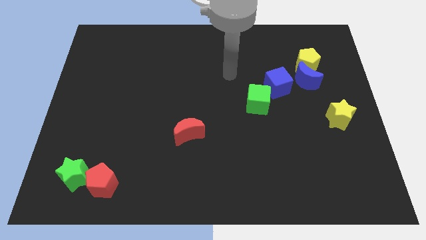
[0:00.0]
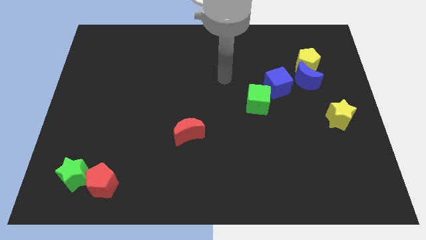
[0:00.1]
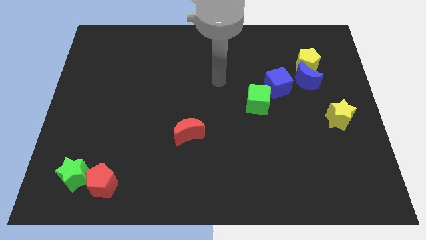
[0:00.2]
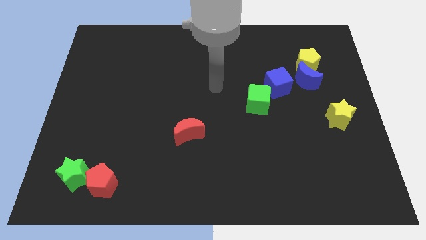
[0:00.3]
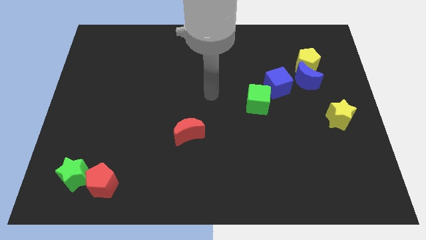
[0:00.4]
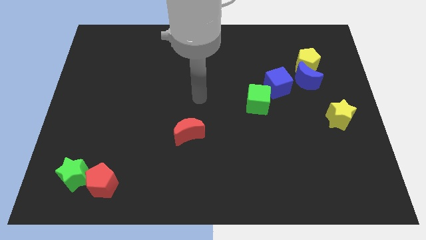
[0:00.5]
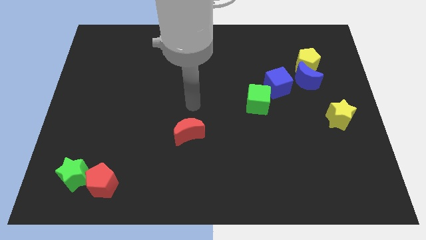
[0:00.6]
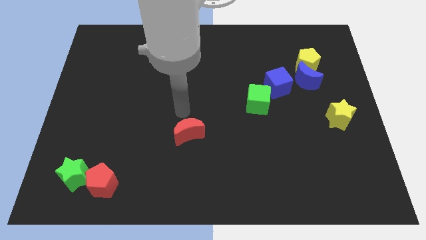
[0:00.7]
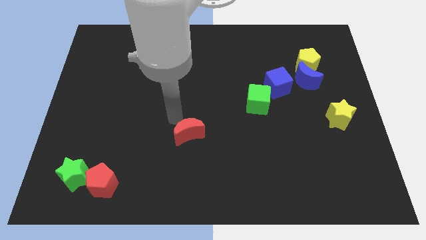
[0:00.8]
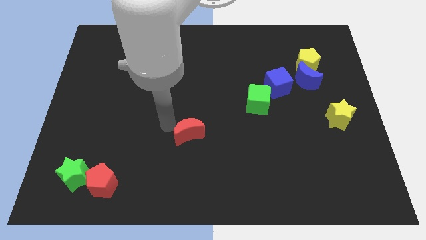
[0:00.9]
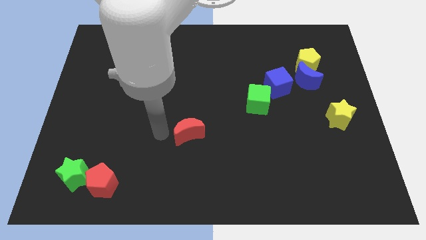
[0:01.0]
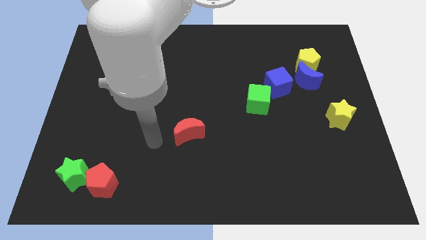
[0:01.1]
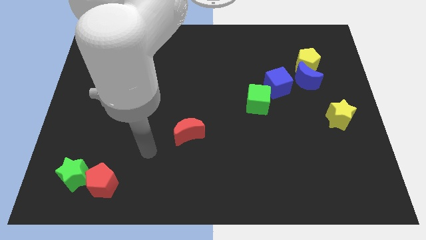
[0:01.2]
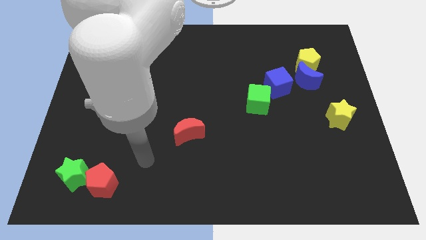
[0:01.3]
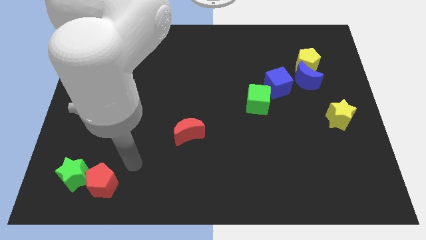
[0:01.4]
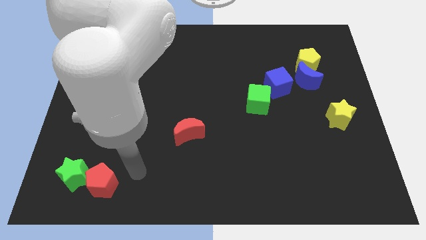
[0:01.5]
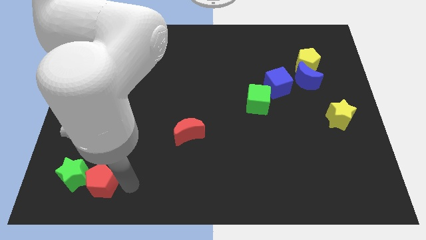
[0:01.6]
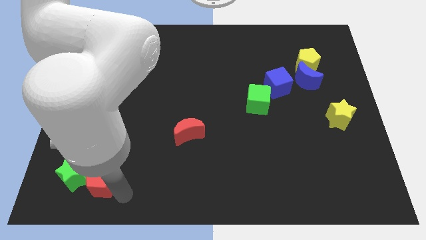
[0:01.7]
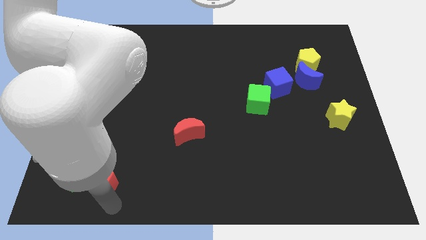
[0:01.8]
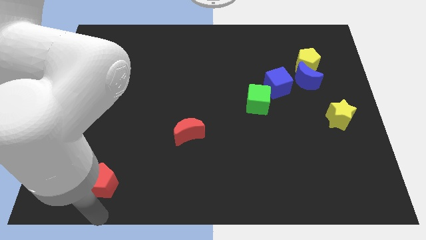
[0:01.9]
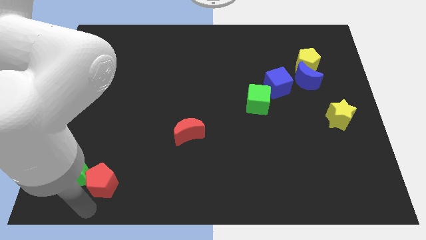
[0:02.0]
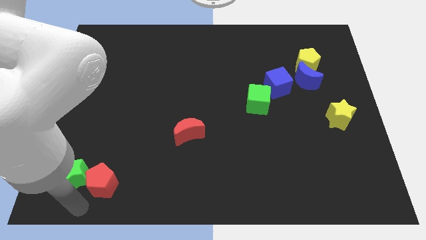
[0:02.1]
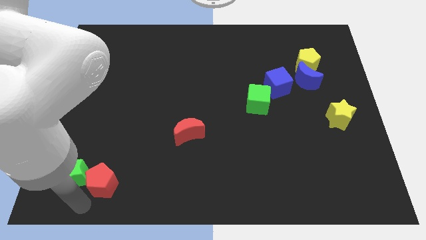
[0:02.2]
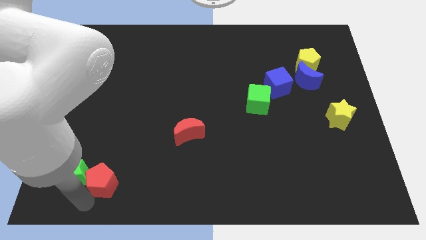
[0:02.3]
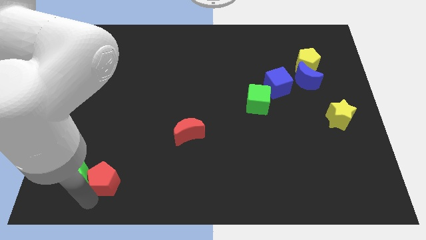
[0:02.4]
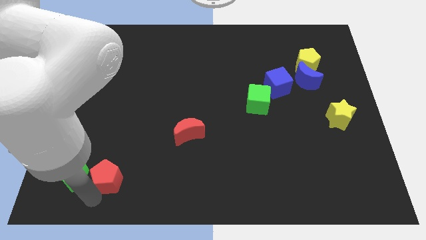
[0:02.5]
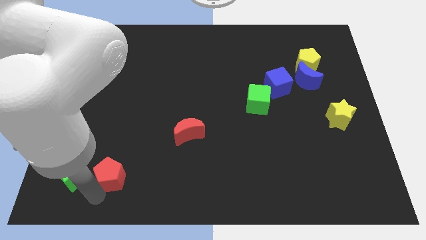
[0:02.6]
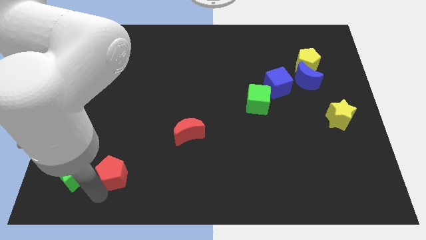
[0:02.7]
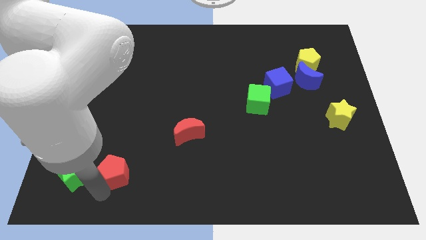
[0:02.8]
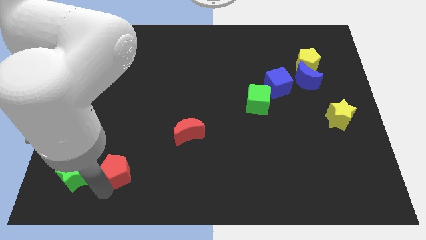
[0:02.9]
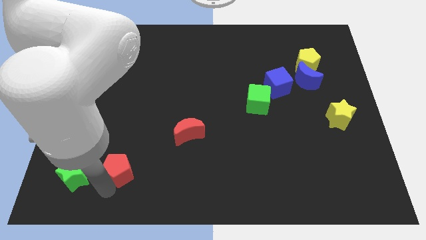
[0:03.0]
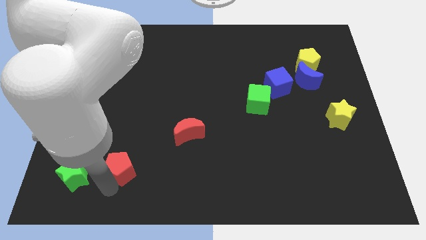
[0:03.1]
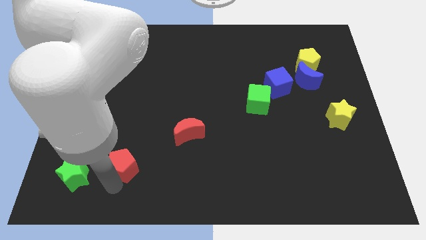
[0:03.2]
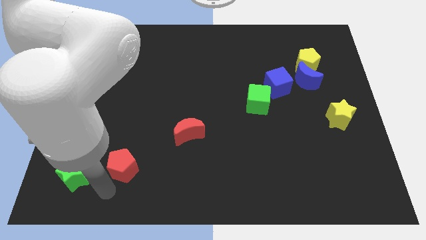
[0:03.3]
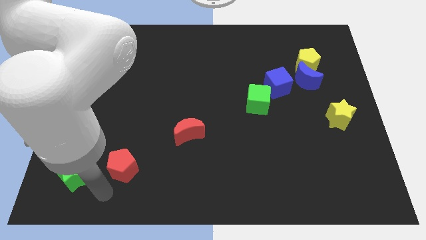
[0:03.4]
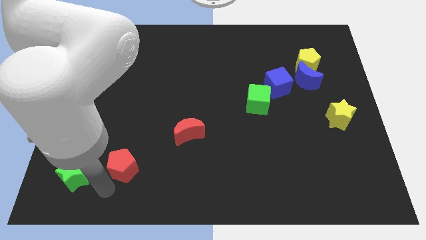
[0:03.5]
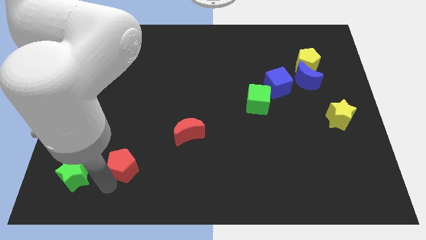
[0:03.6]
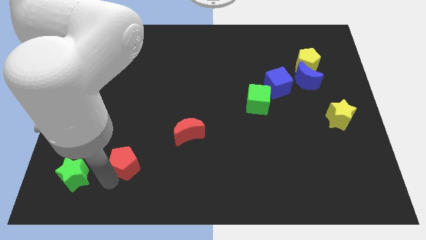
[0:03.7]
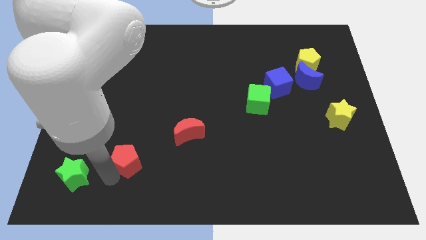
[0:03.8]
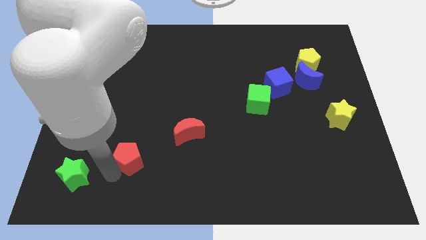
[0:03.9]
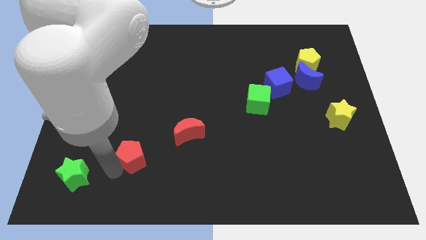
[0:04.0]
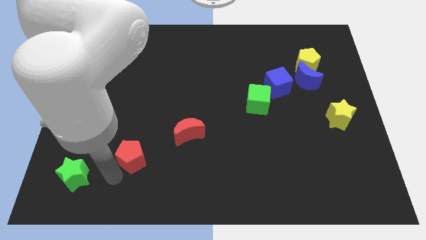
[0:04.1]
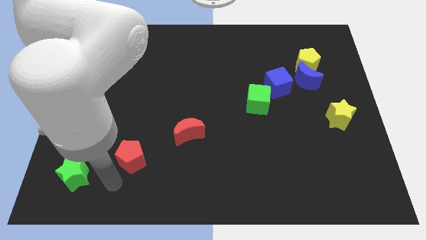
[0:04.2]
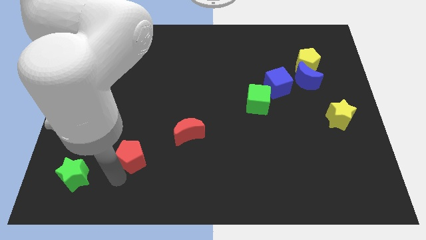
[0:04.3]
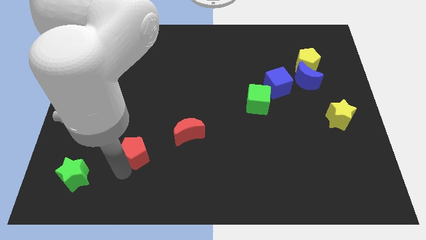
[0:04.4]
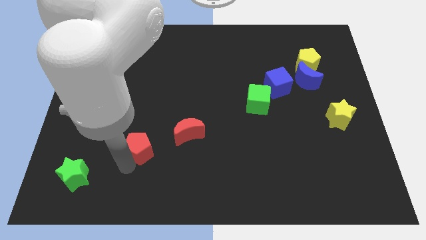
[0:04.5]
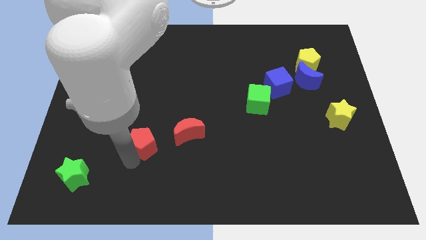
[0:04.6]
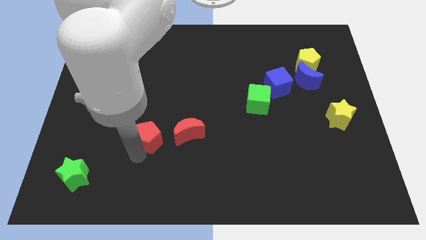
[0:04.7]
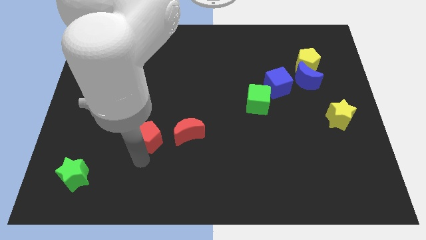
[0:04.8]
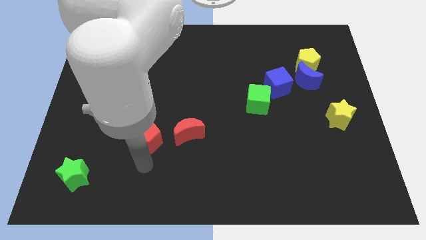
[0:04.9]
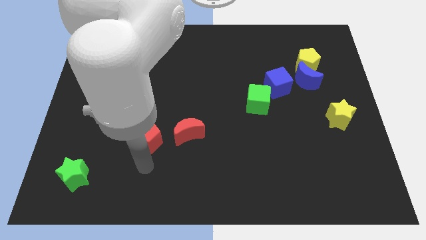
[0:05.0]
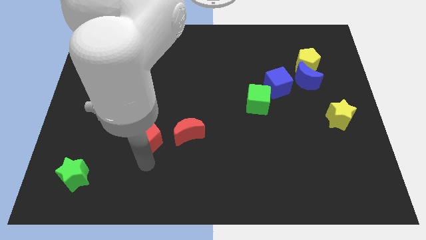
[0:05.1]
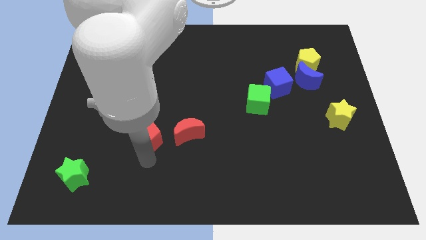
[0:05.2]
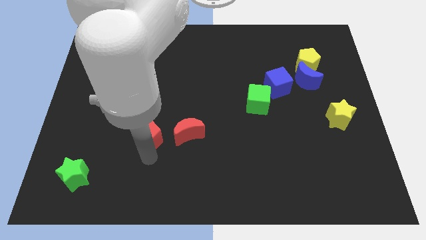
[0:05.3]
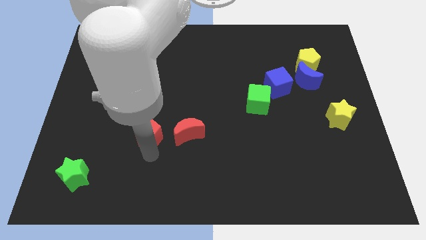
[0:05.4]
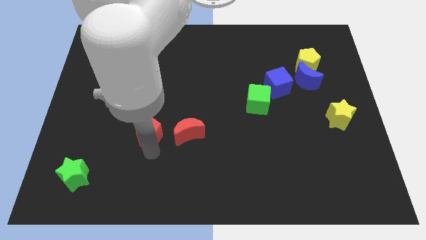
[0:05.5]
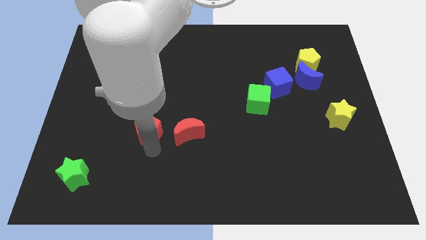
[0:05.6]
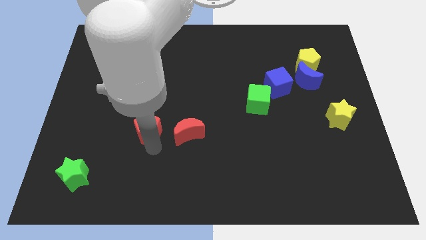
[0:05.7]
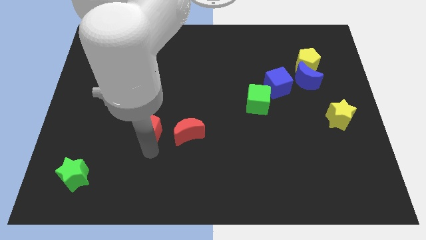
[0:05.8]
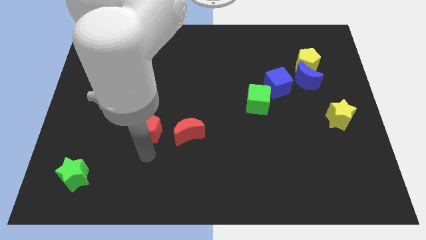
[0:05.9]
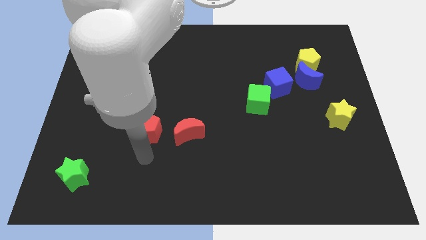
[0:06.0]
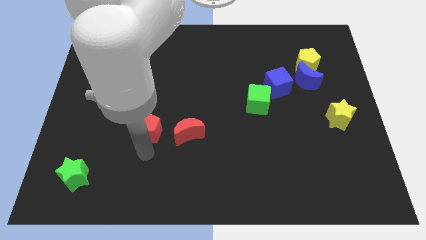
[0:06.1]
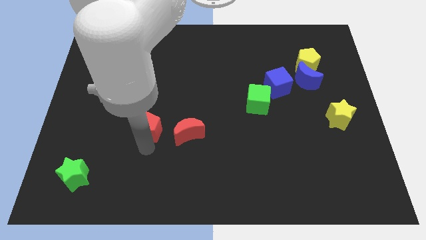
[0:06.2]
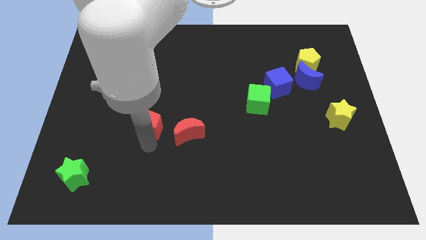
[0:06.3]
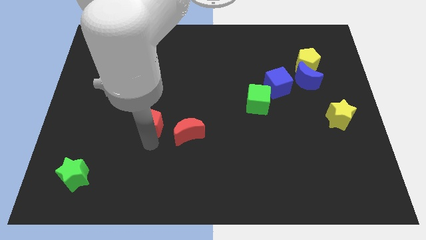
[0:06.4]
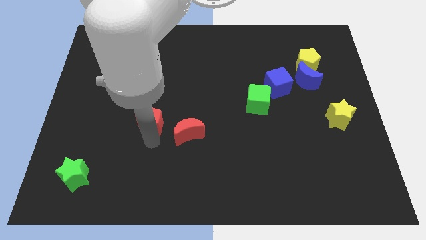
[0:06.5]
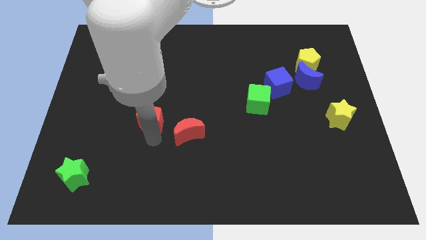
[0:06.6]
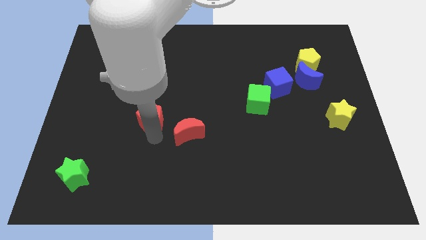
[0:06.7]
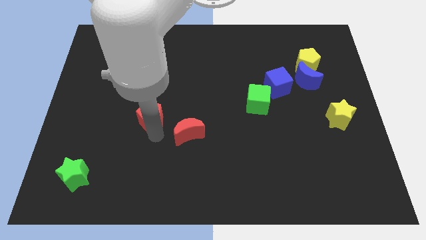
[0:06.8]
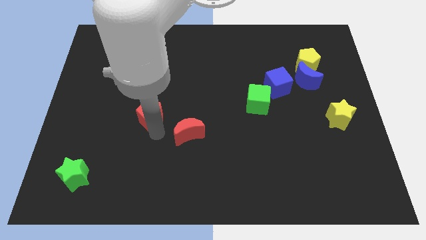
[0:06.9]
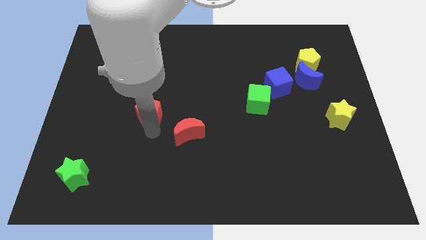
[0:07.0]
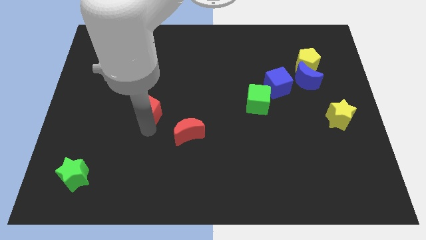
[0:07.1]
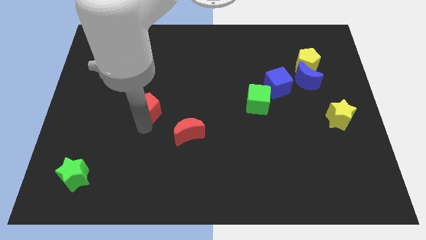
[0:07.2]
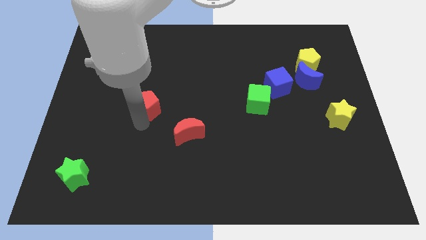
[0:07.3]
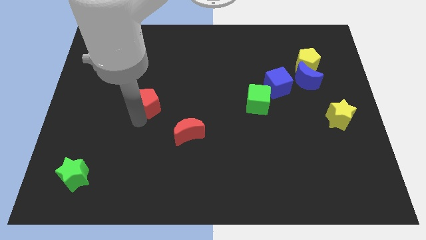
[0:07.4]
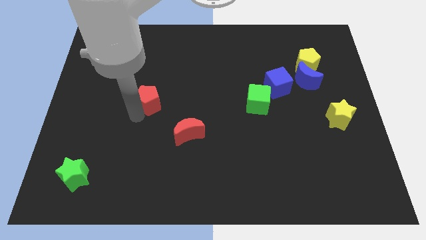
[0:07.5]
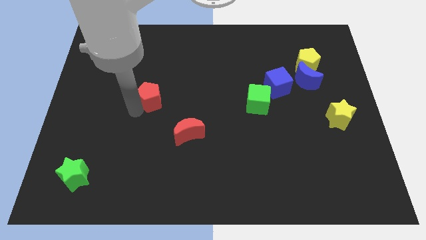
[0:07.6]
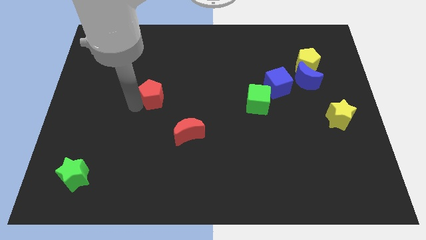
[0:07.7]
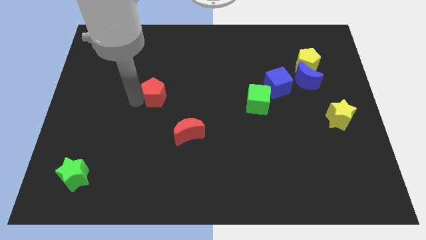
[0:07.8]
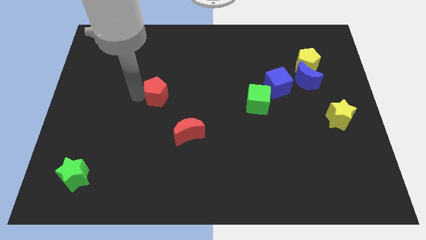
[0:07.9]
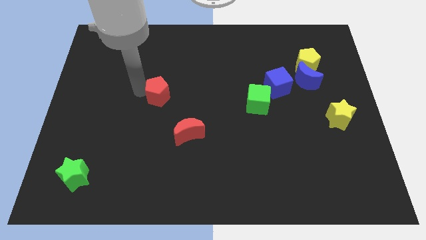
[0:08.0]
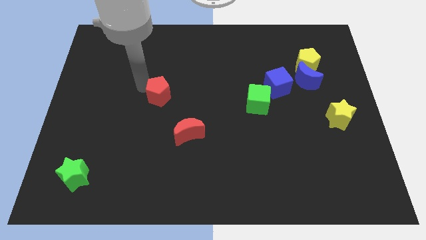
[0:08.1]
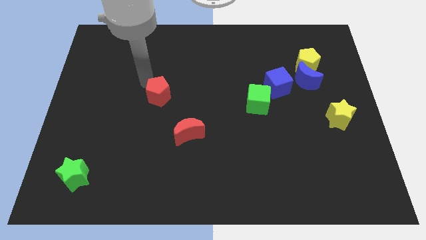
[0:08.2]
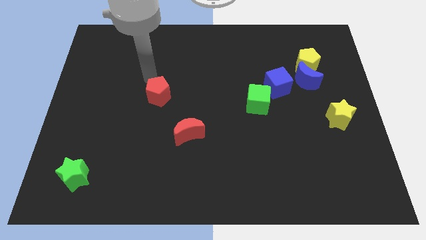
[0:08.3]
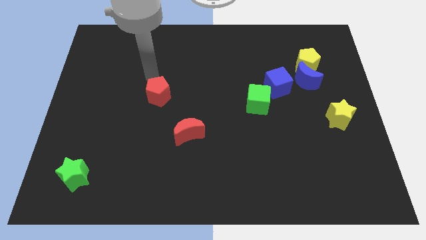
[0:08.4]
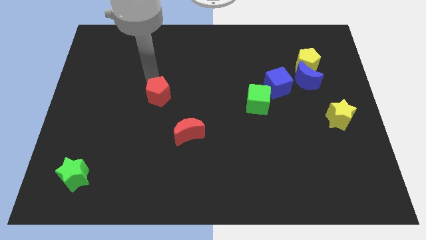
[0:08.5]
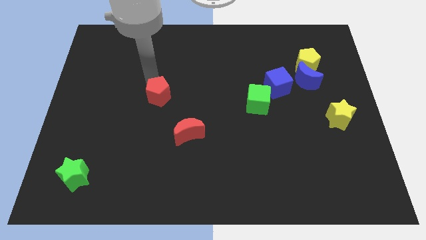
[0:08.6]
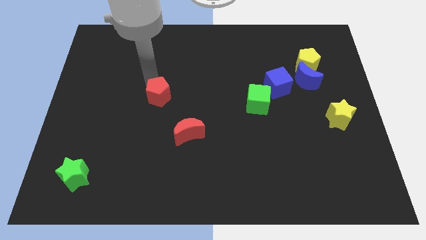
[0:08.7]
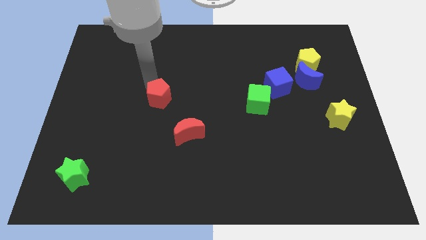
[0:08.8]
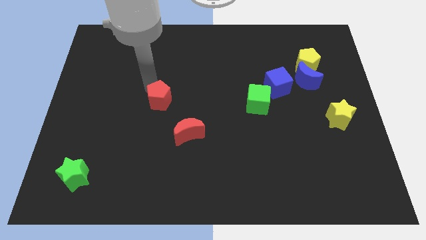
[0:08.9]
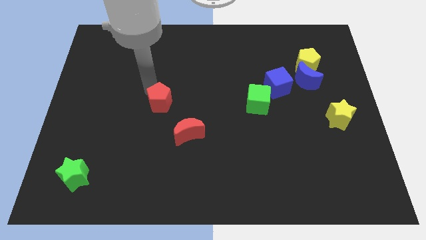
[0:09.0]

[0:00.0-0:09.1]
push the red pentagon to the center
